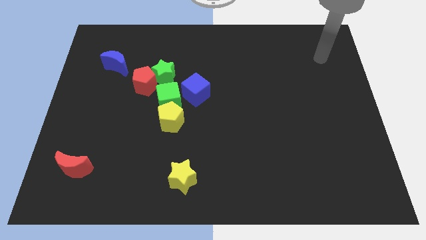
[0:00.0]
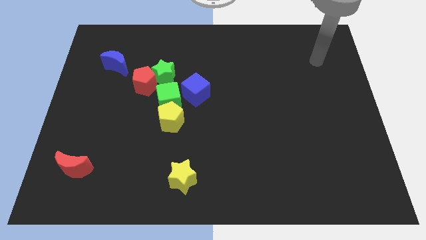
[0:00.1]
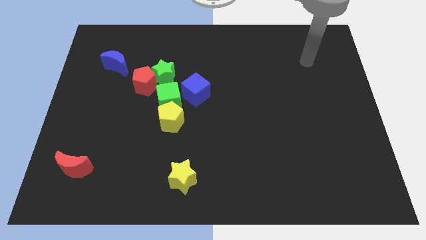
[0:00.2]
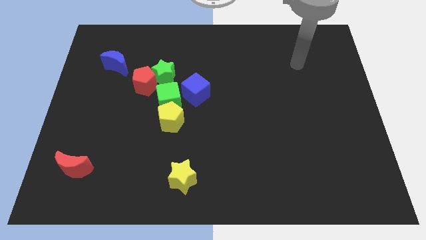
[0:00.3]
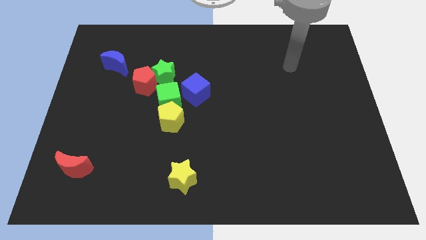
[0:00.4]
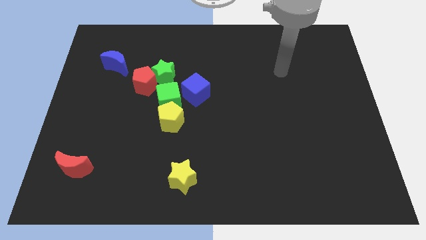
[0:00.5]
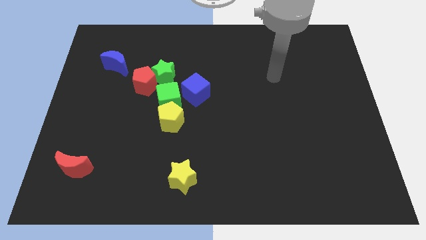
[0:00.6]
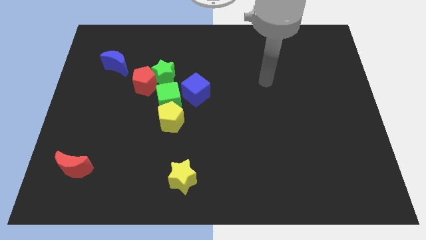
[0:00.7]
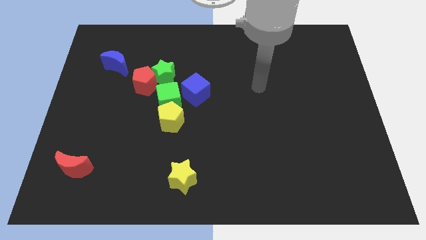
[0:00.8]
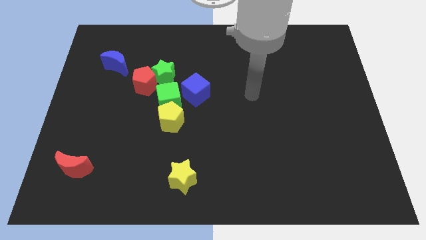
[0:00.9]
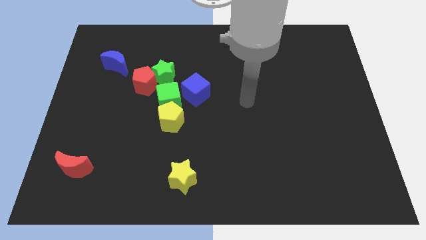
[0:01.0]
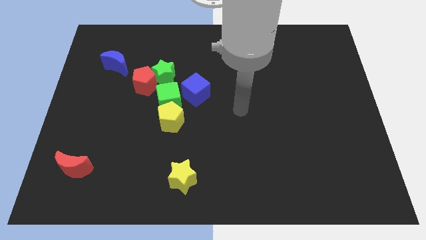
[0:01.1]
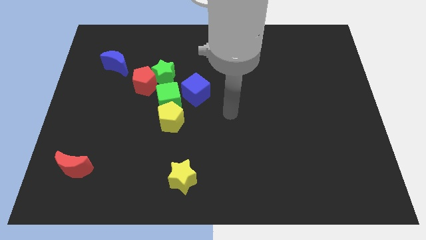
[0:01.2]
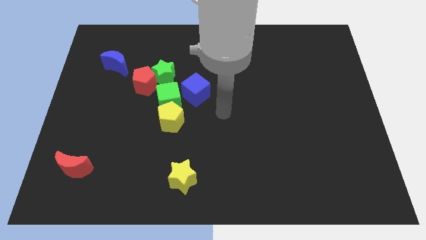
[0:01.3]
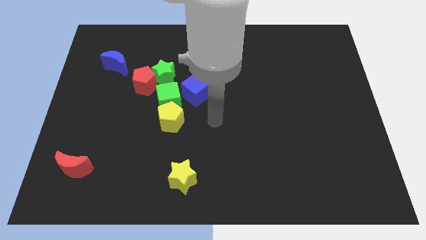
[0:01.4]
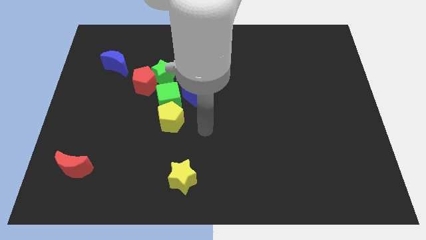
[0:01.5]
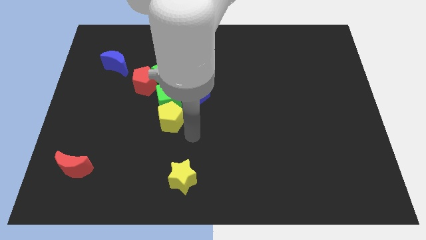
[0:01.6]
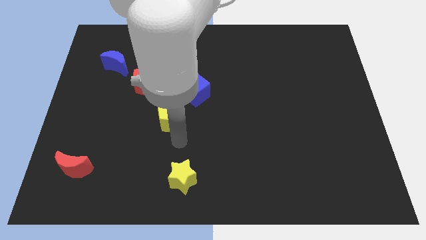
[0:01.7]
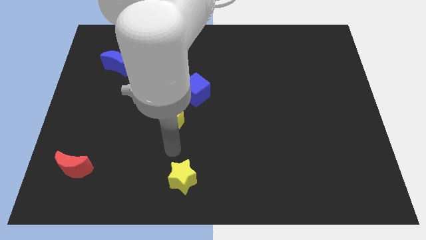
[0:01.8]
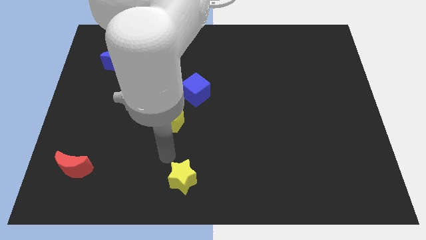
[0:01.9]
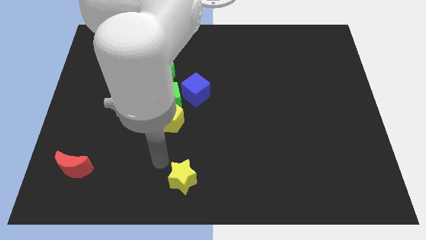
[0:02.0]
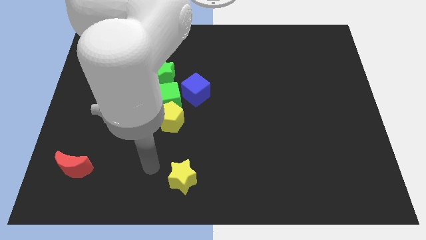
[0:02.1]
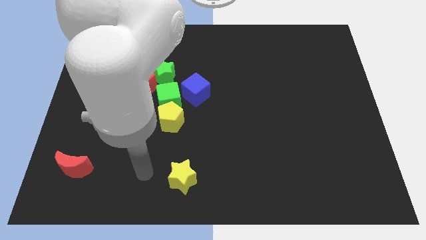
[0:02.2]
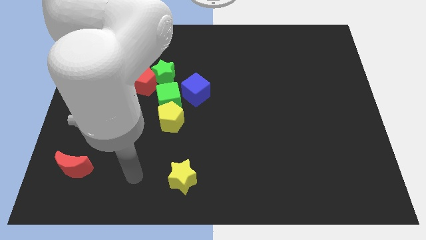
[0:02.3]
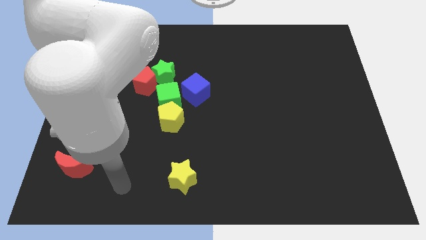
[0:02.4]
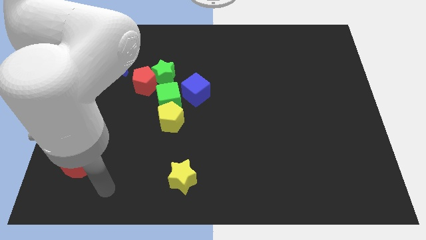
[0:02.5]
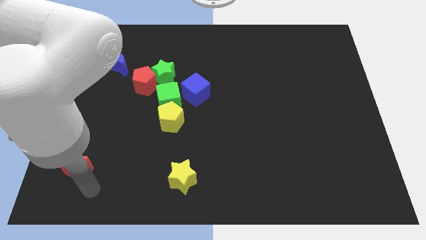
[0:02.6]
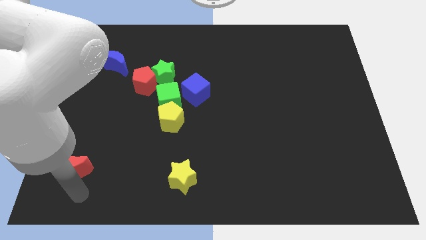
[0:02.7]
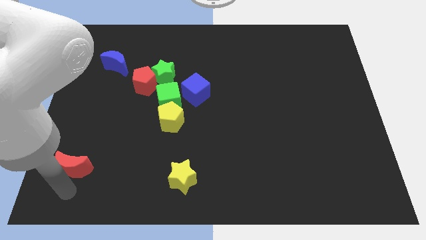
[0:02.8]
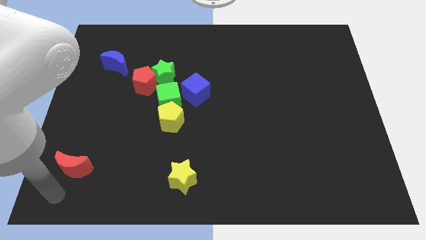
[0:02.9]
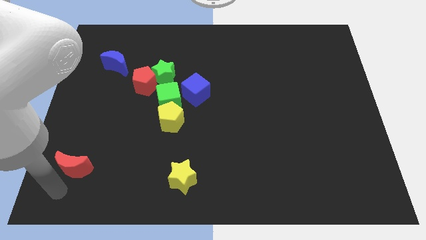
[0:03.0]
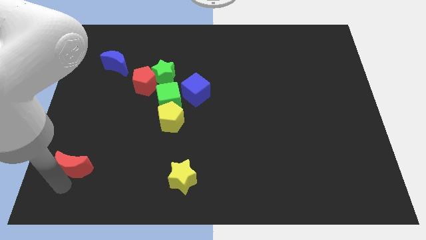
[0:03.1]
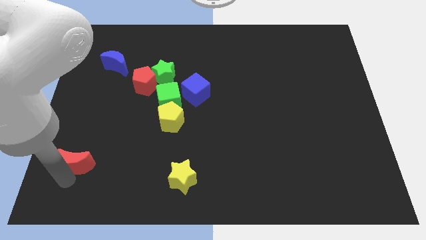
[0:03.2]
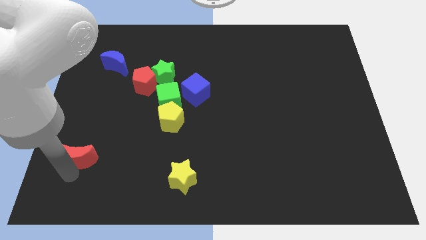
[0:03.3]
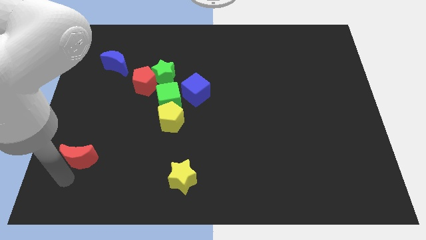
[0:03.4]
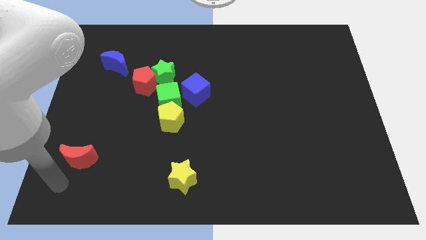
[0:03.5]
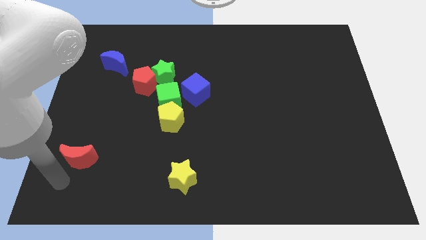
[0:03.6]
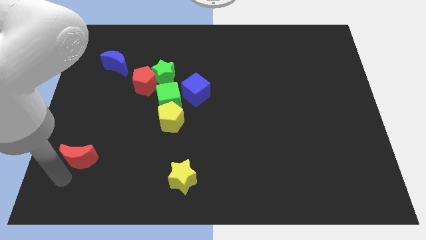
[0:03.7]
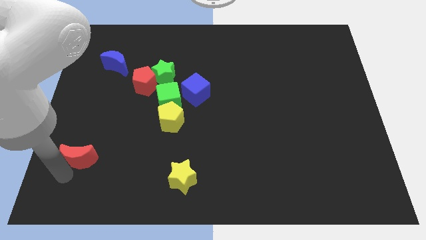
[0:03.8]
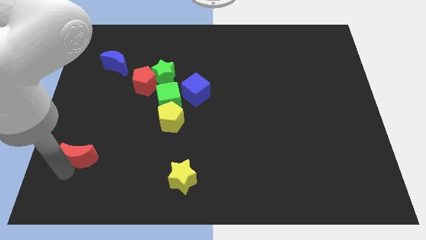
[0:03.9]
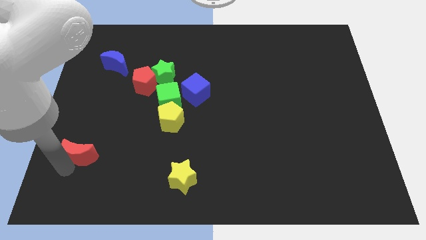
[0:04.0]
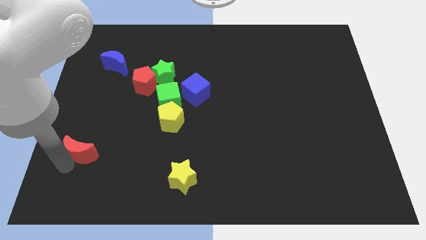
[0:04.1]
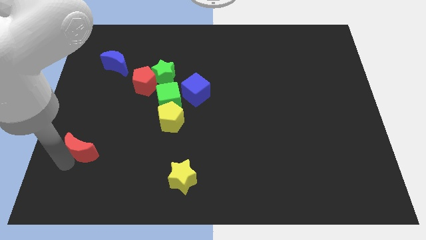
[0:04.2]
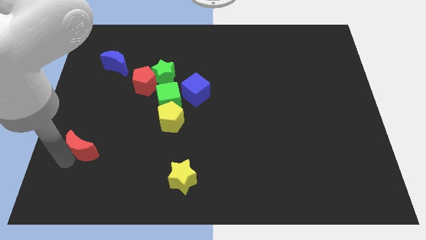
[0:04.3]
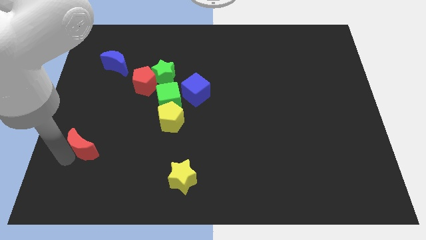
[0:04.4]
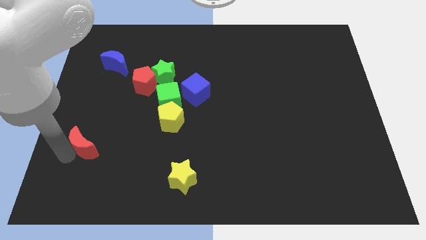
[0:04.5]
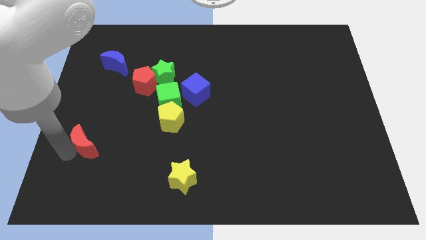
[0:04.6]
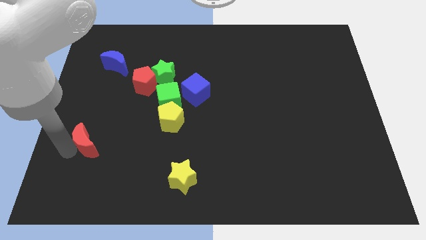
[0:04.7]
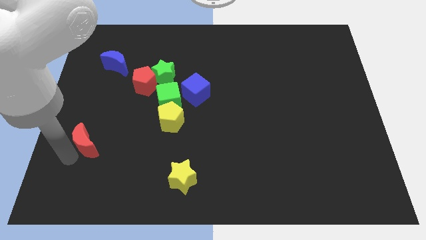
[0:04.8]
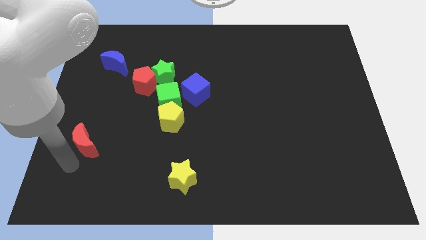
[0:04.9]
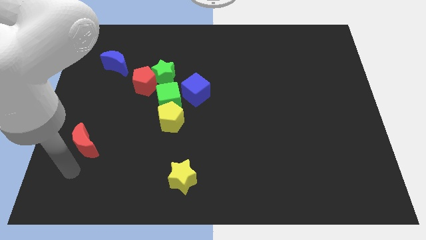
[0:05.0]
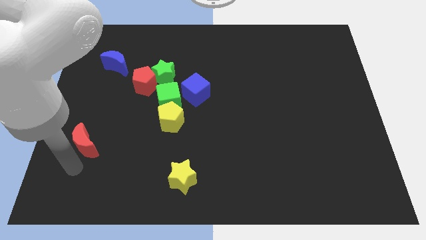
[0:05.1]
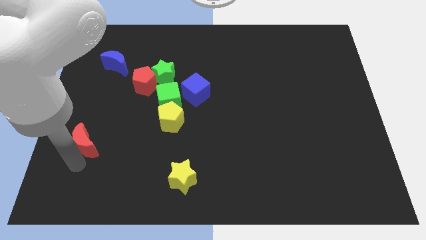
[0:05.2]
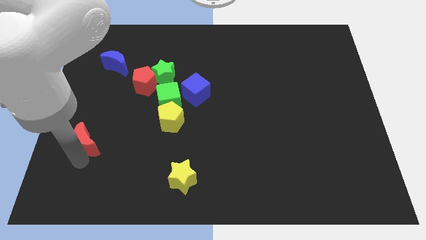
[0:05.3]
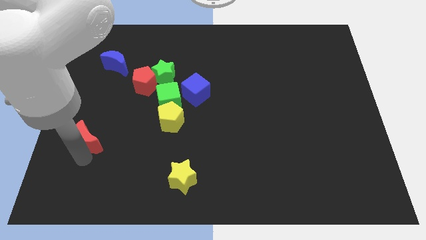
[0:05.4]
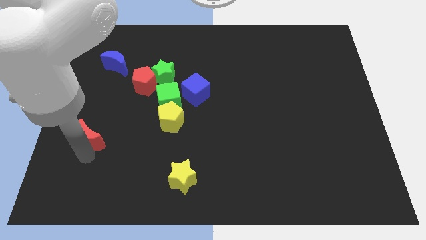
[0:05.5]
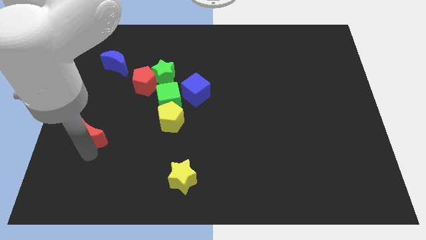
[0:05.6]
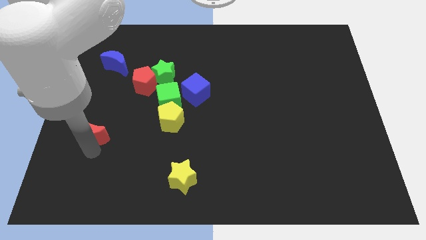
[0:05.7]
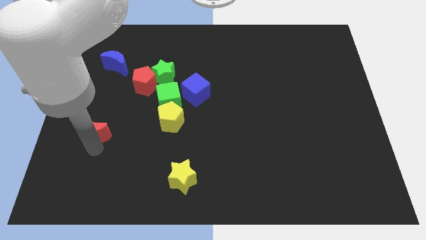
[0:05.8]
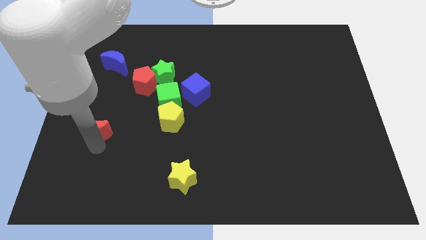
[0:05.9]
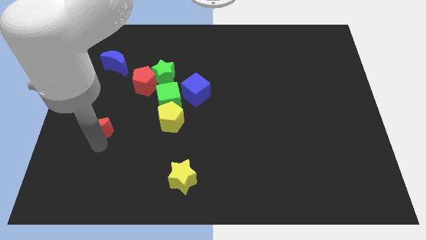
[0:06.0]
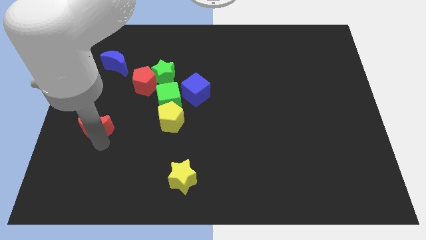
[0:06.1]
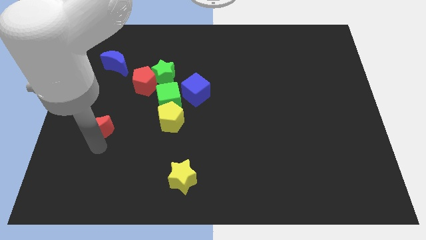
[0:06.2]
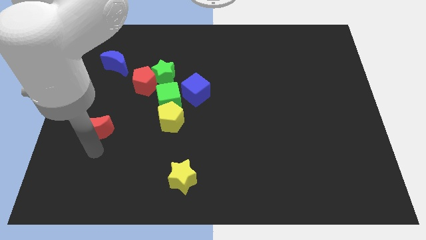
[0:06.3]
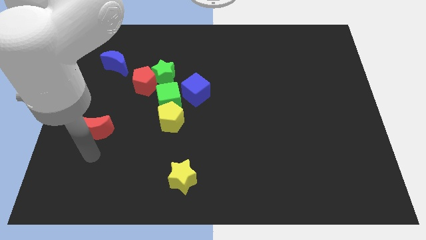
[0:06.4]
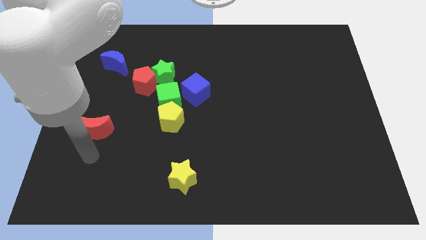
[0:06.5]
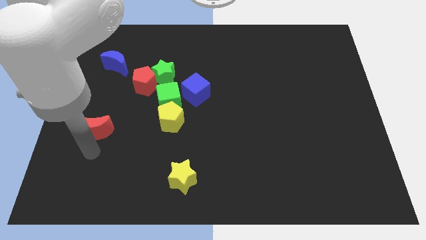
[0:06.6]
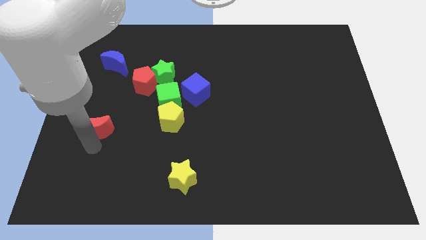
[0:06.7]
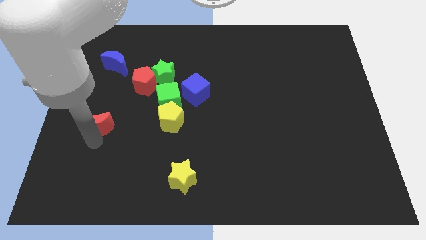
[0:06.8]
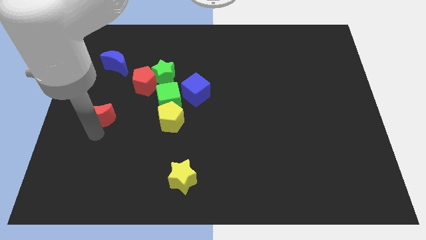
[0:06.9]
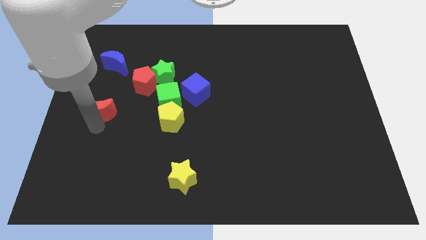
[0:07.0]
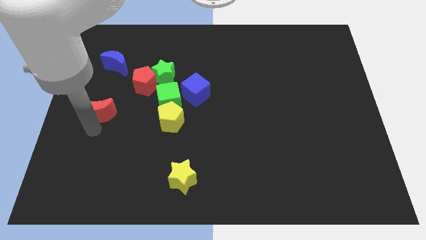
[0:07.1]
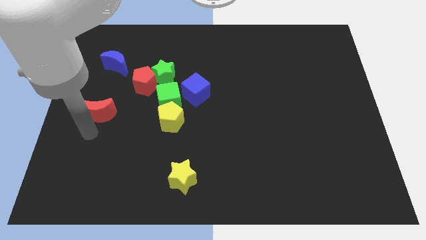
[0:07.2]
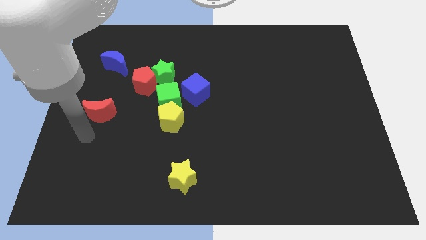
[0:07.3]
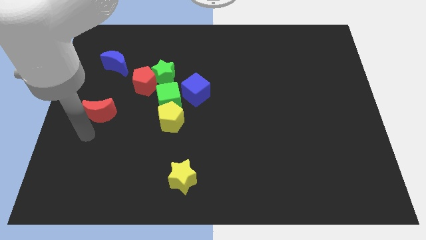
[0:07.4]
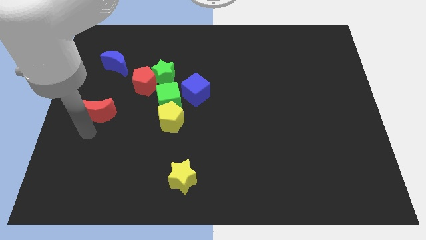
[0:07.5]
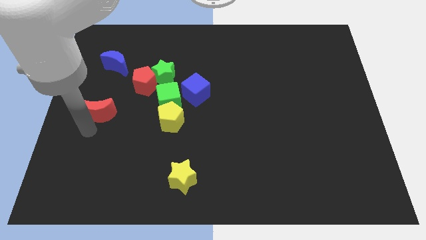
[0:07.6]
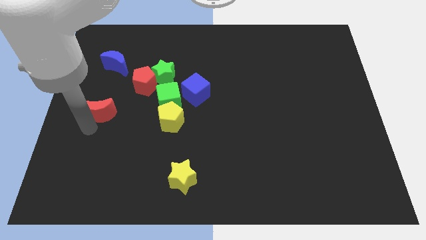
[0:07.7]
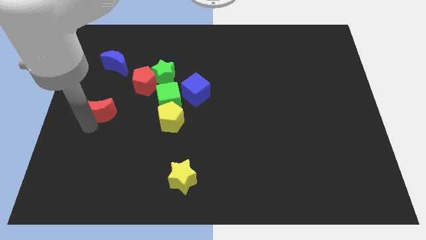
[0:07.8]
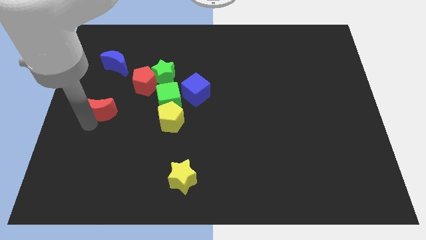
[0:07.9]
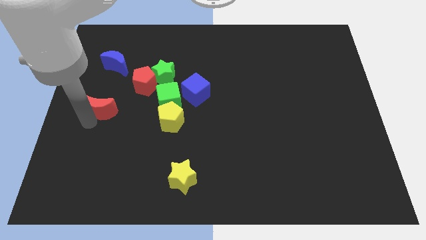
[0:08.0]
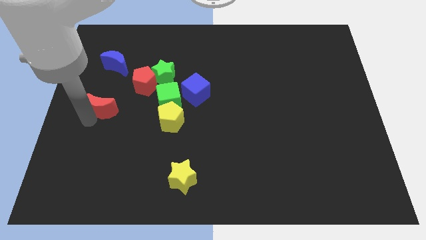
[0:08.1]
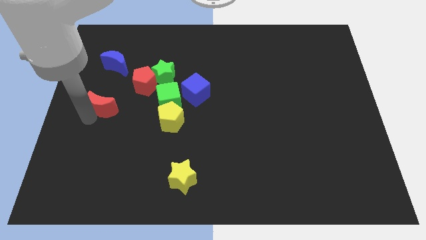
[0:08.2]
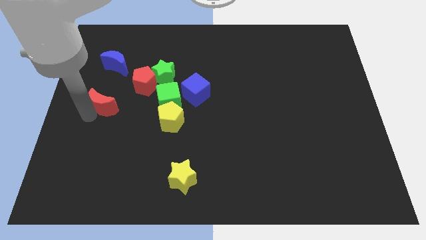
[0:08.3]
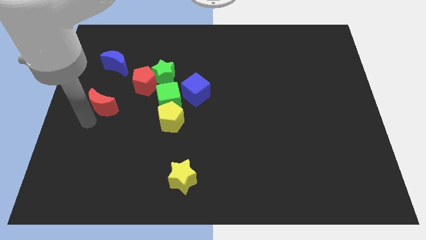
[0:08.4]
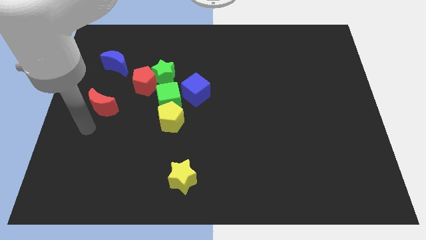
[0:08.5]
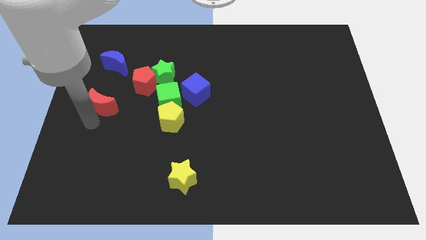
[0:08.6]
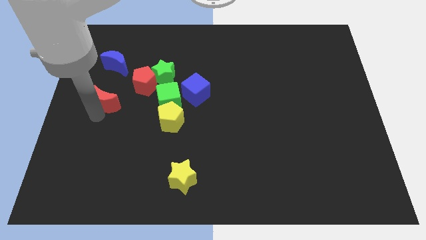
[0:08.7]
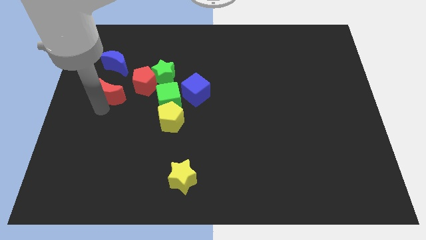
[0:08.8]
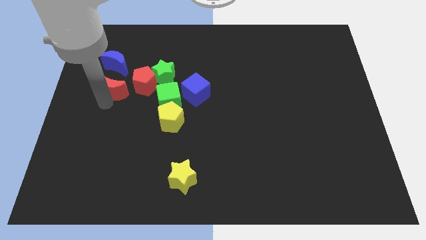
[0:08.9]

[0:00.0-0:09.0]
push the red moon to the left side of the green star
